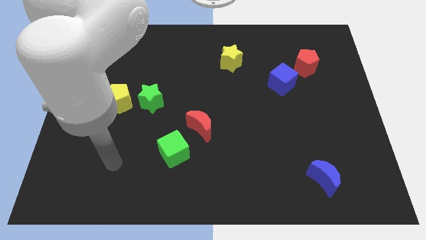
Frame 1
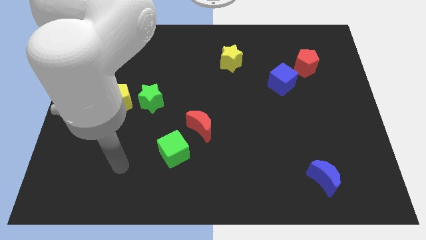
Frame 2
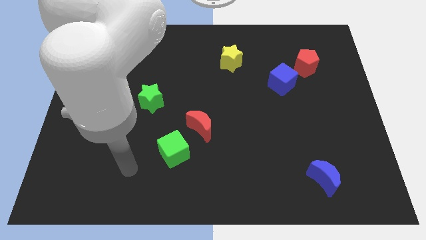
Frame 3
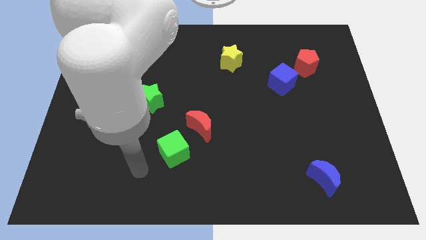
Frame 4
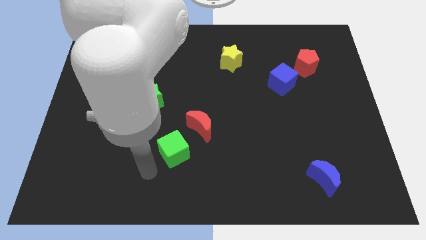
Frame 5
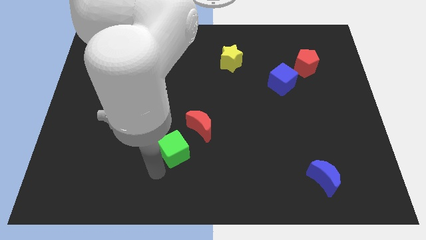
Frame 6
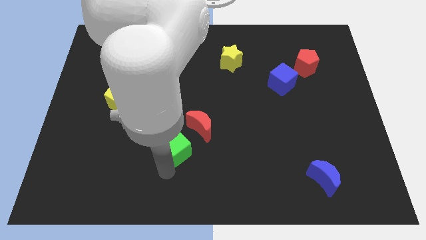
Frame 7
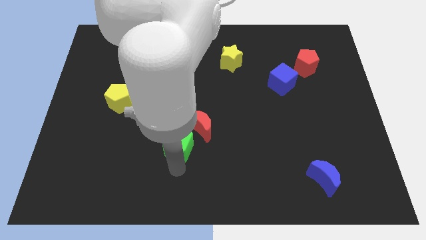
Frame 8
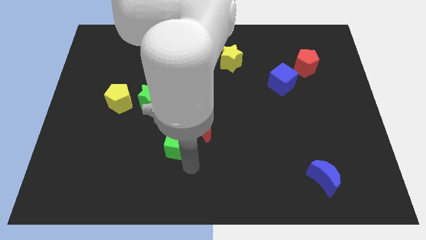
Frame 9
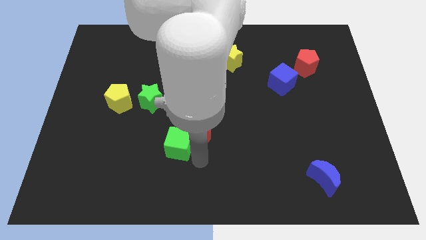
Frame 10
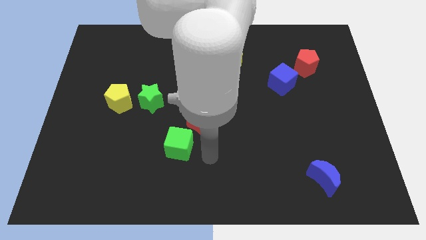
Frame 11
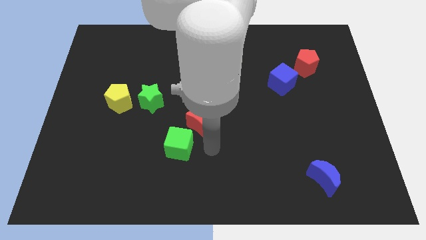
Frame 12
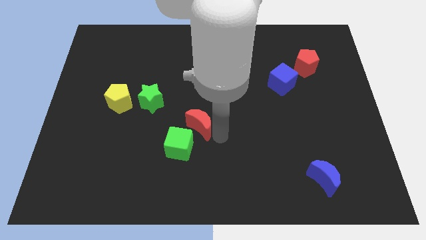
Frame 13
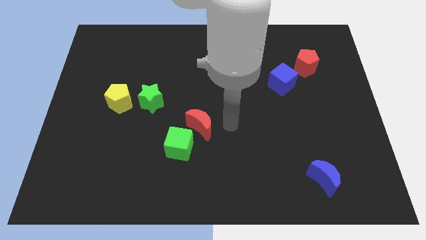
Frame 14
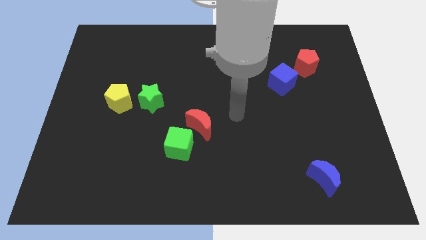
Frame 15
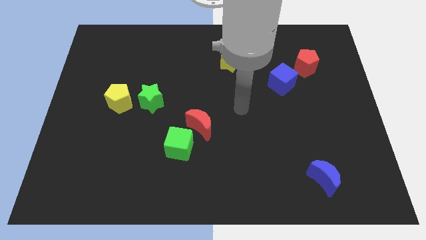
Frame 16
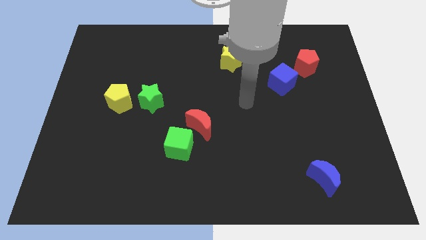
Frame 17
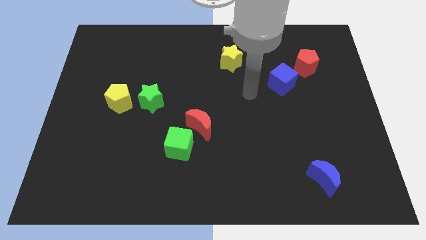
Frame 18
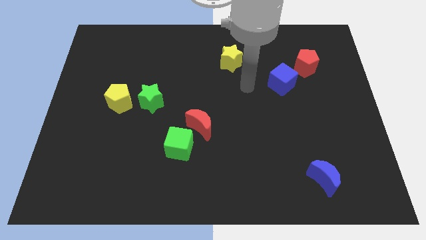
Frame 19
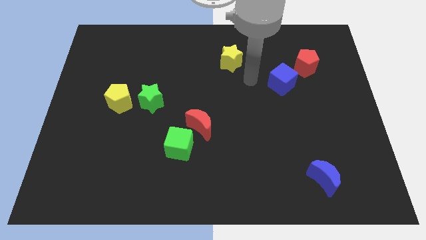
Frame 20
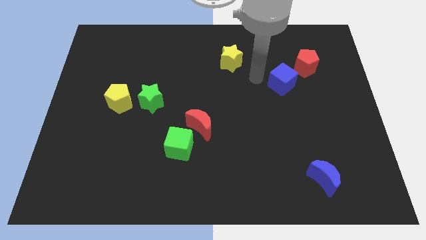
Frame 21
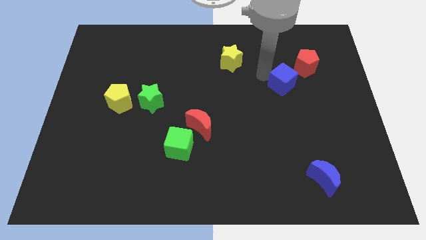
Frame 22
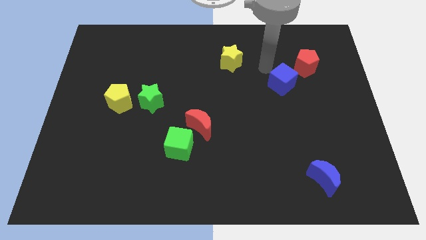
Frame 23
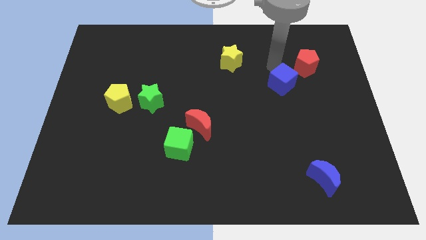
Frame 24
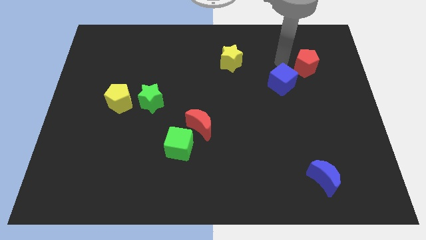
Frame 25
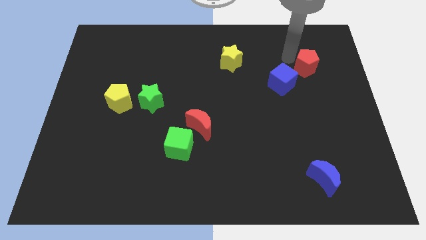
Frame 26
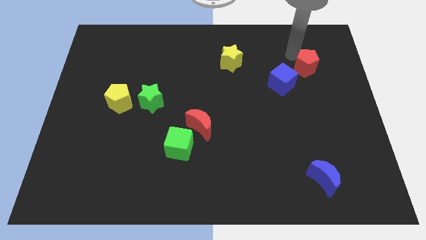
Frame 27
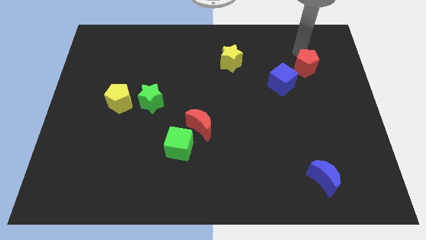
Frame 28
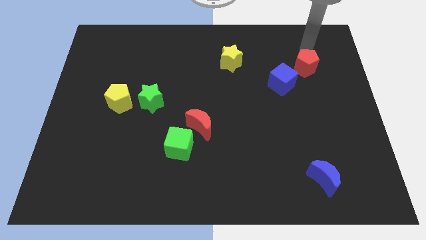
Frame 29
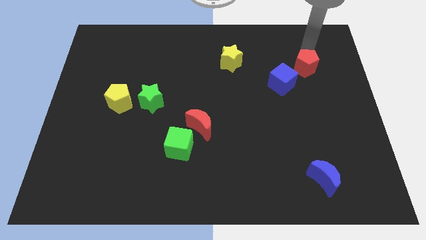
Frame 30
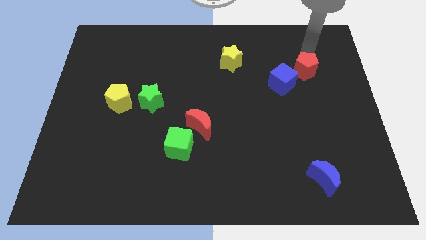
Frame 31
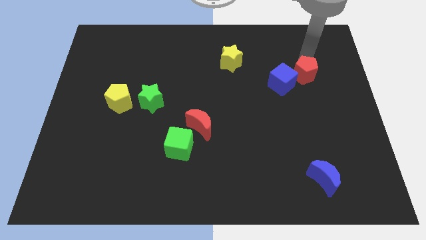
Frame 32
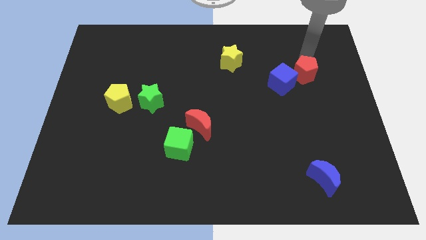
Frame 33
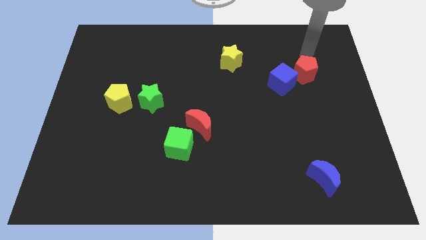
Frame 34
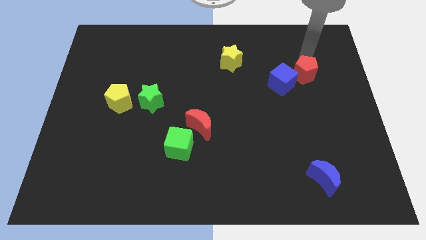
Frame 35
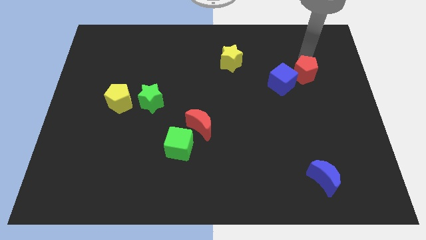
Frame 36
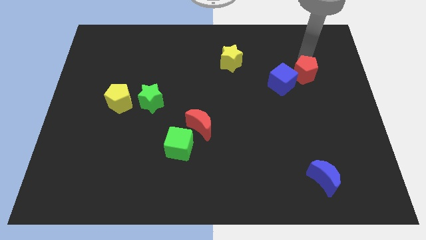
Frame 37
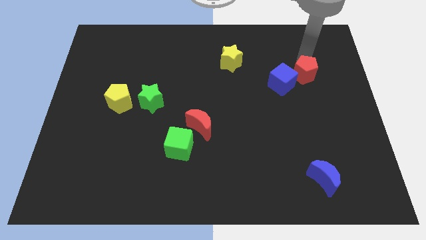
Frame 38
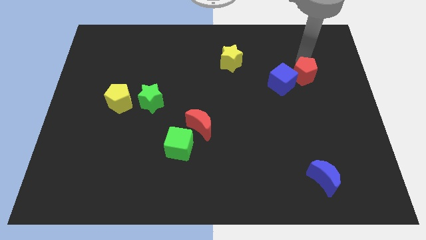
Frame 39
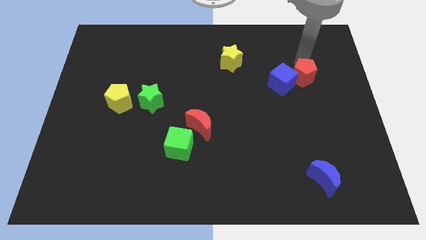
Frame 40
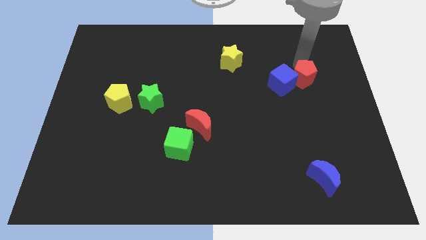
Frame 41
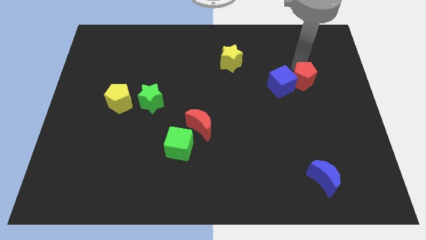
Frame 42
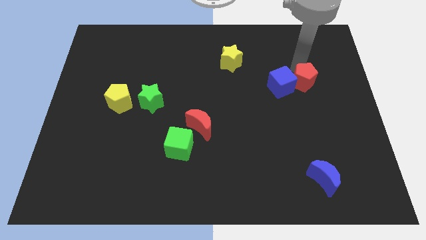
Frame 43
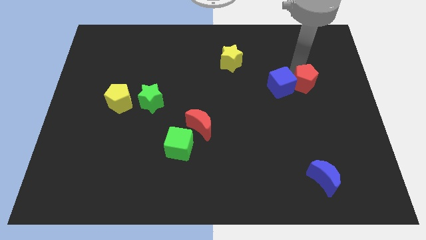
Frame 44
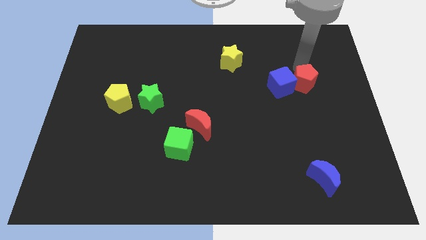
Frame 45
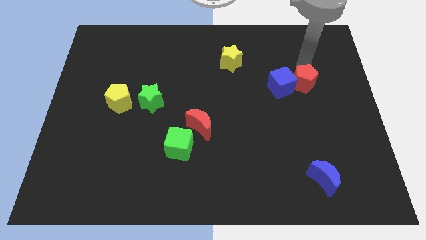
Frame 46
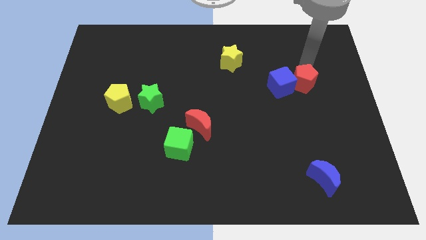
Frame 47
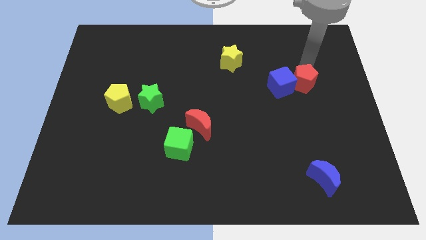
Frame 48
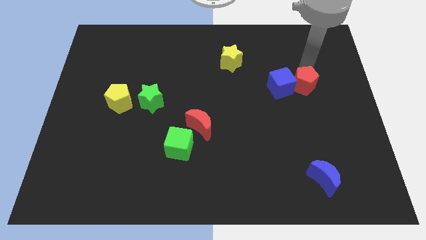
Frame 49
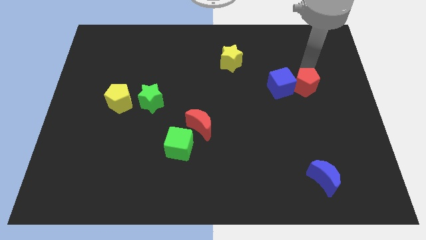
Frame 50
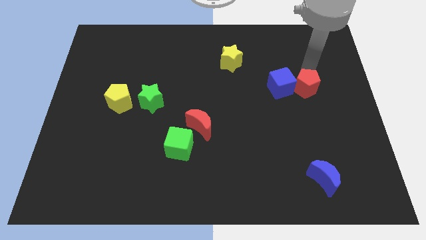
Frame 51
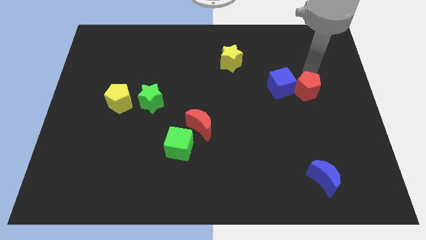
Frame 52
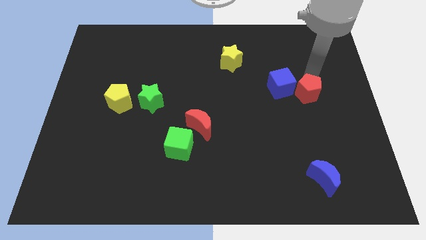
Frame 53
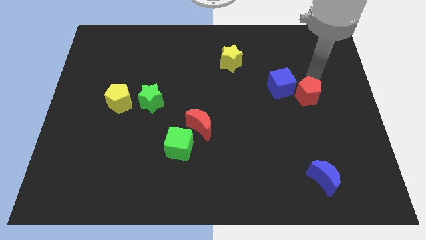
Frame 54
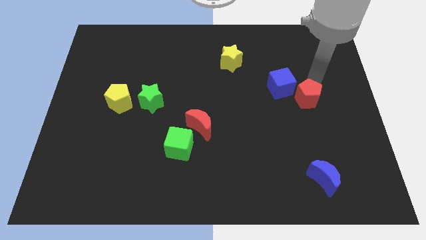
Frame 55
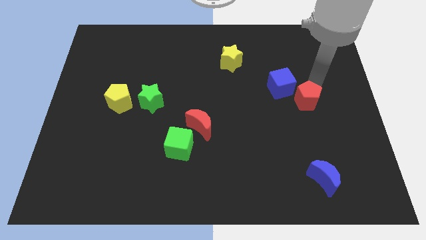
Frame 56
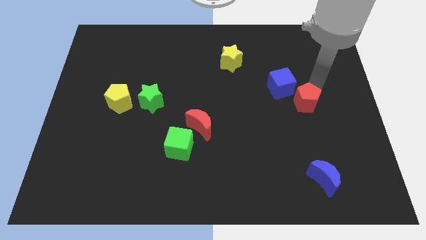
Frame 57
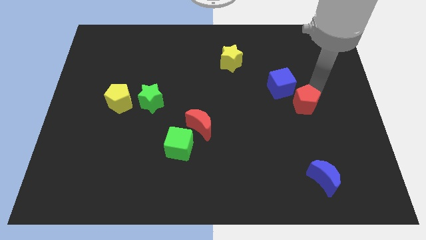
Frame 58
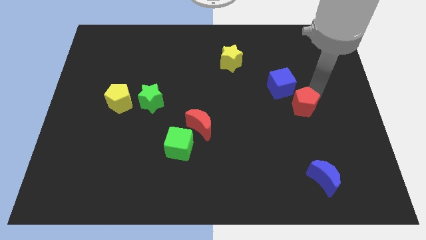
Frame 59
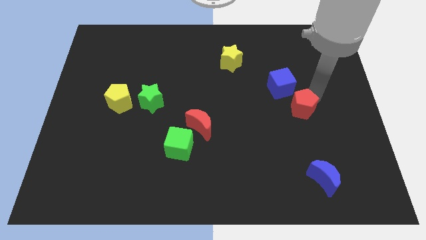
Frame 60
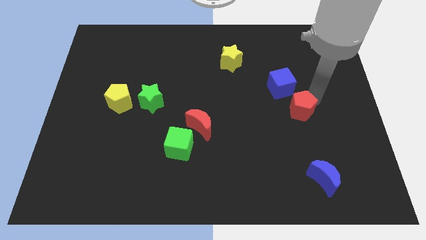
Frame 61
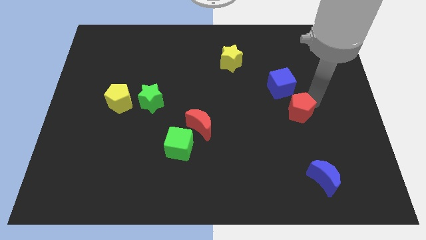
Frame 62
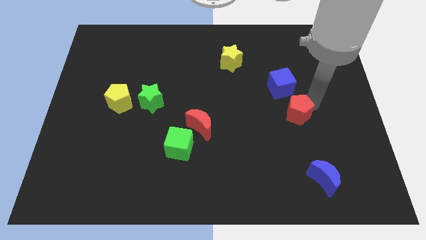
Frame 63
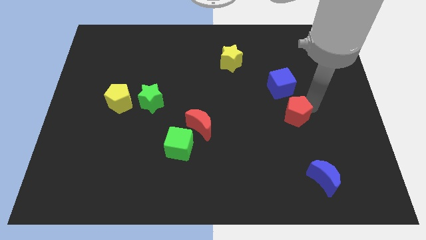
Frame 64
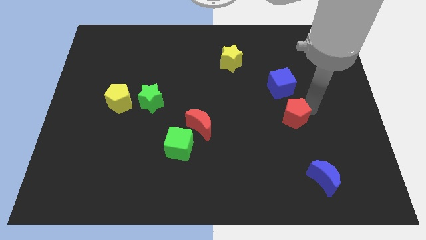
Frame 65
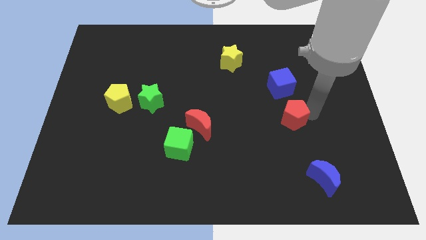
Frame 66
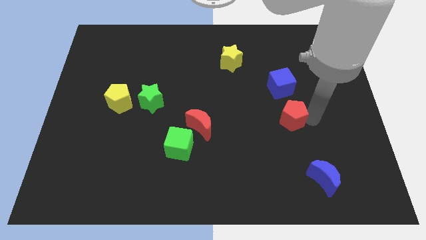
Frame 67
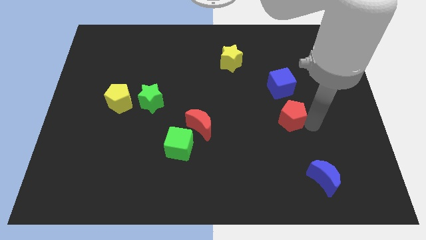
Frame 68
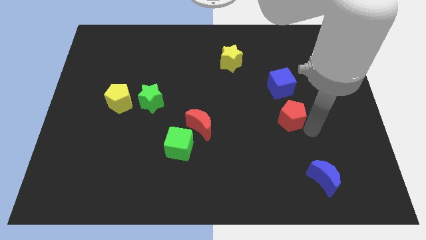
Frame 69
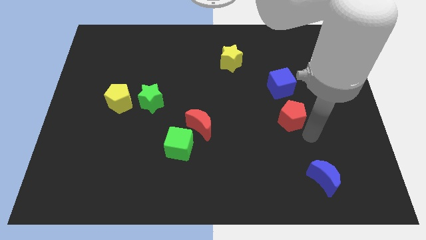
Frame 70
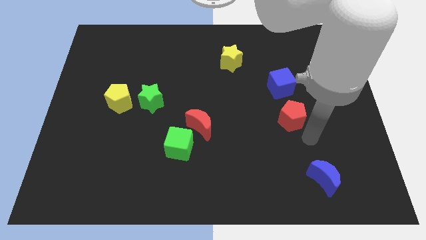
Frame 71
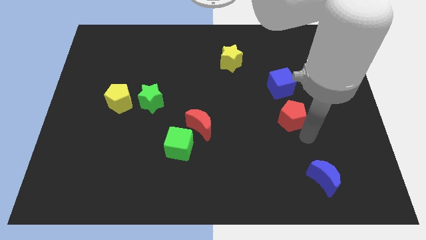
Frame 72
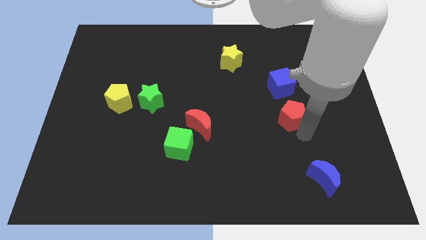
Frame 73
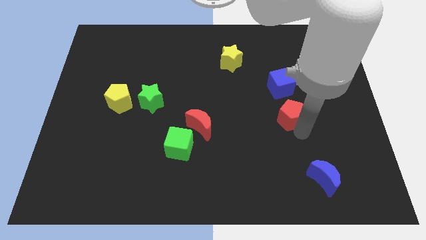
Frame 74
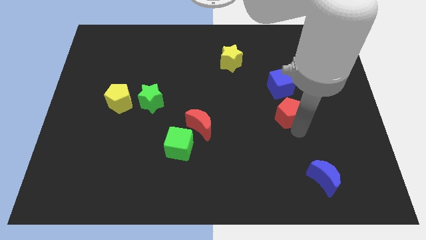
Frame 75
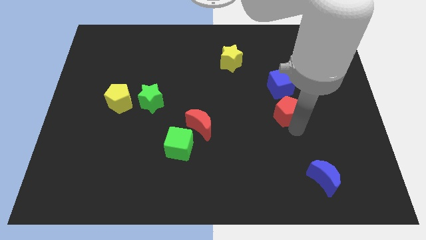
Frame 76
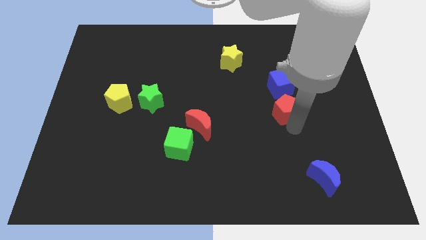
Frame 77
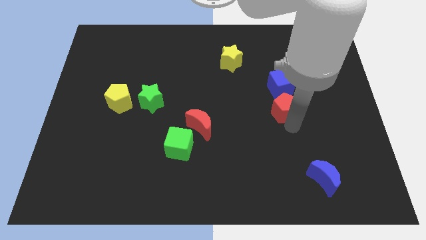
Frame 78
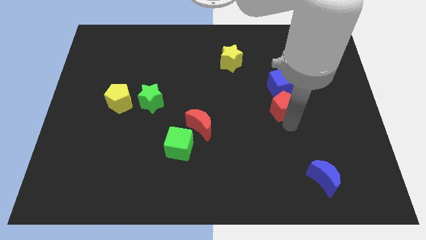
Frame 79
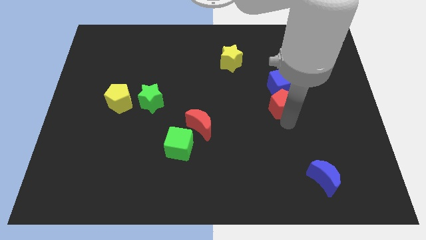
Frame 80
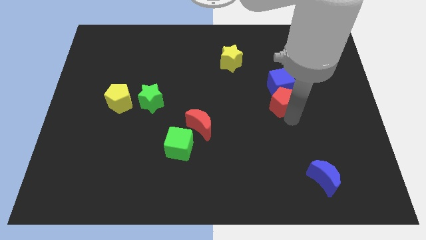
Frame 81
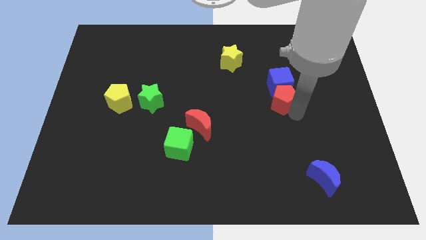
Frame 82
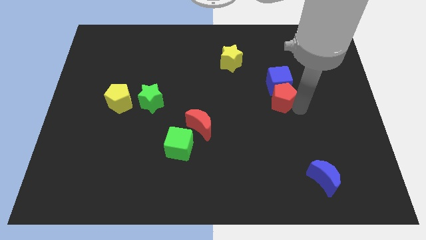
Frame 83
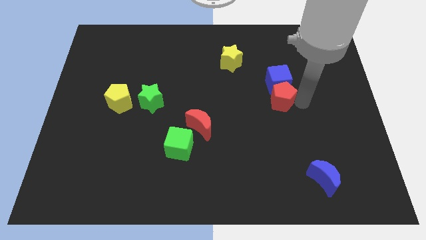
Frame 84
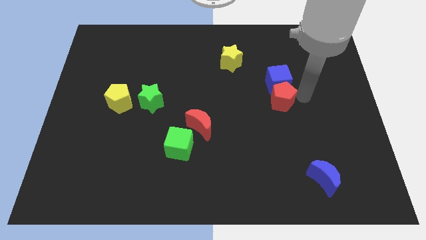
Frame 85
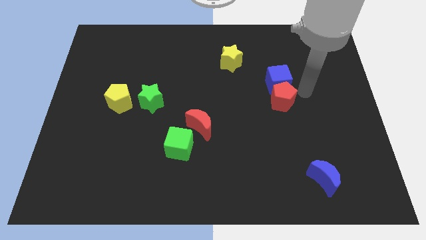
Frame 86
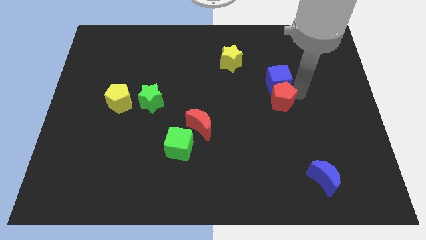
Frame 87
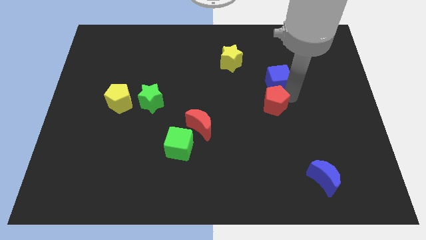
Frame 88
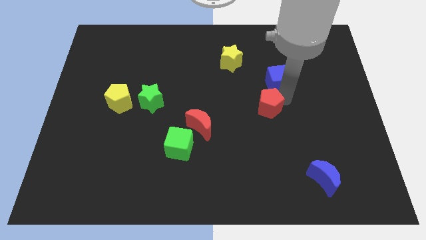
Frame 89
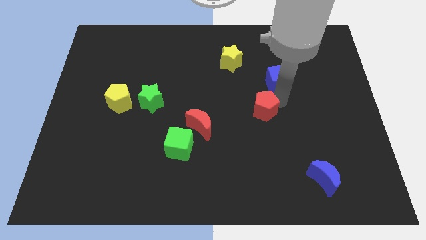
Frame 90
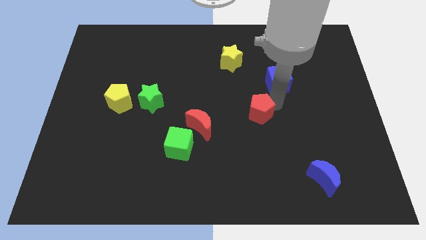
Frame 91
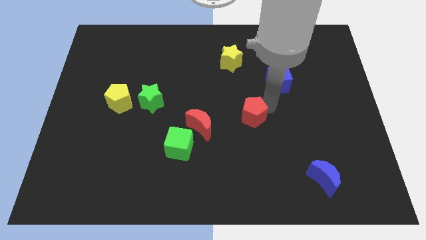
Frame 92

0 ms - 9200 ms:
push the red pentagon diagonally down and left
